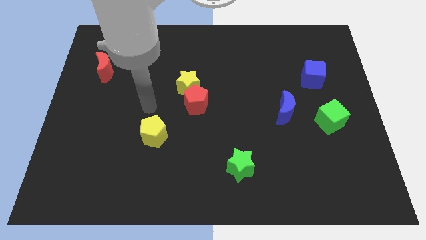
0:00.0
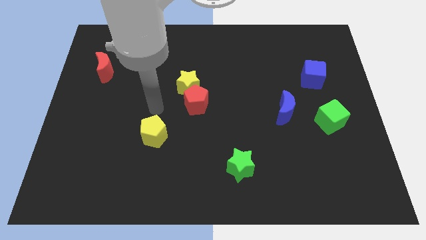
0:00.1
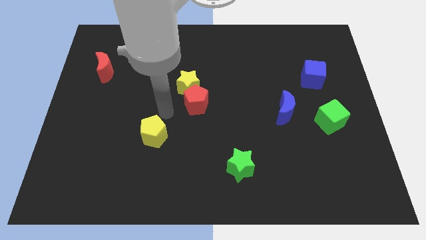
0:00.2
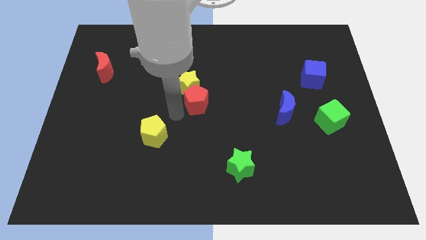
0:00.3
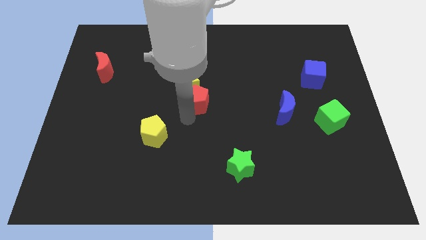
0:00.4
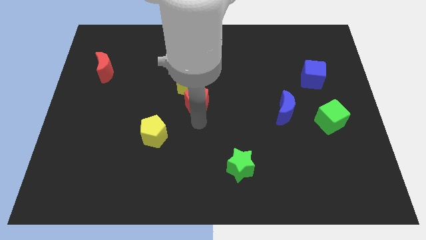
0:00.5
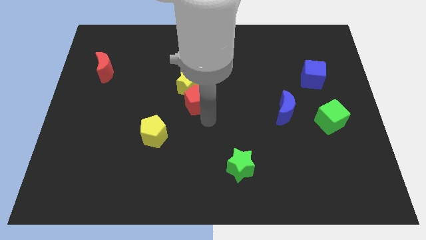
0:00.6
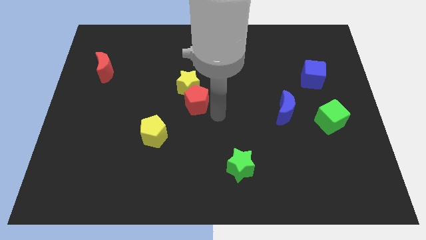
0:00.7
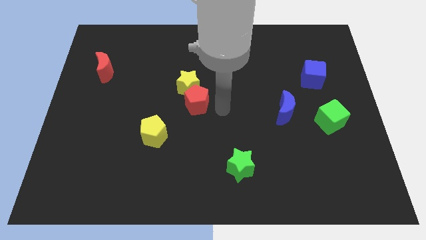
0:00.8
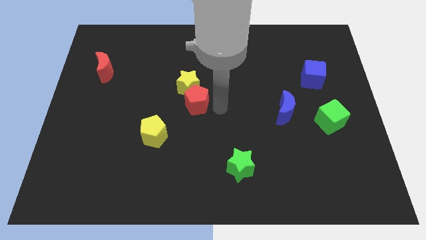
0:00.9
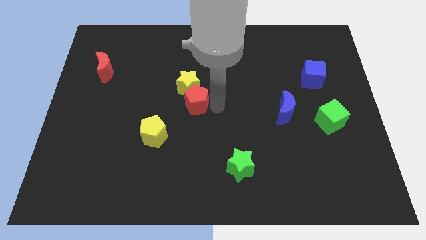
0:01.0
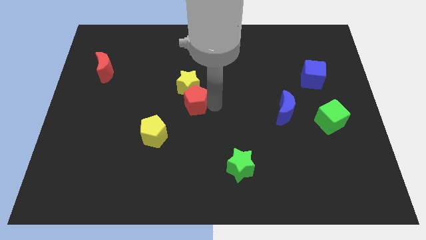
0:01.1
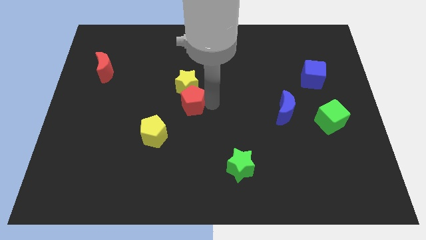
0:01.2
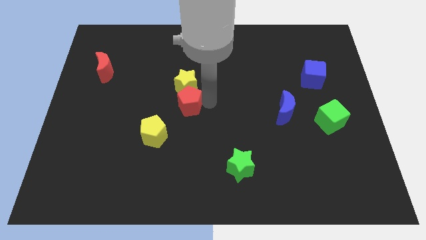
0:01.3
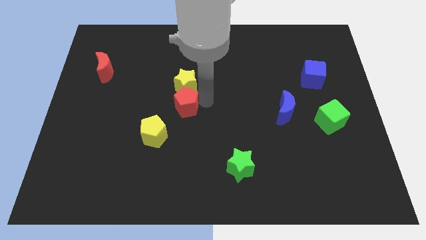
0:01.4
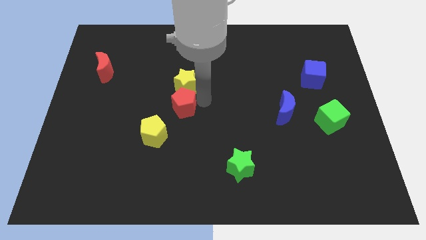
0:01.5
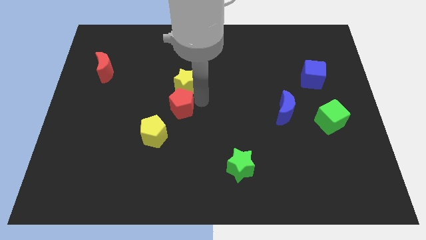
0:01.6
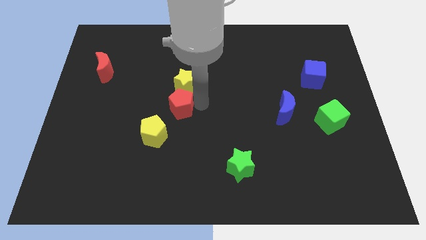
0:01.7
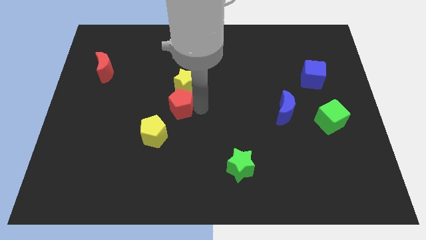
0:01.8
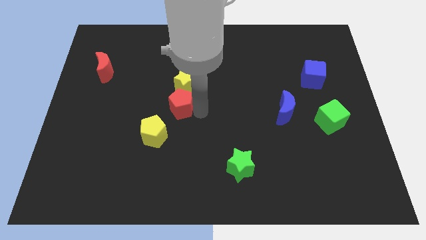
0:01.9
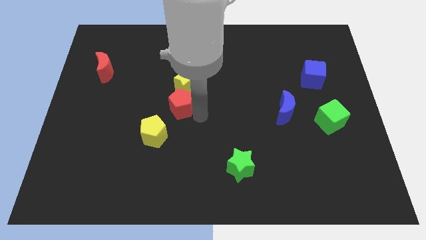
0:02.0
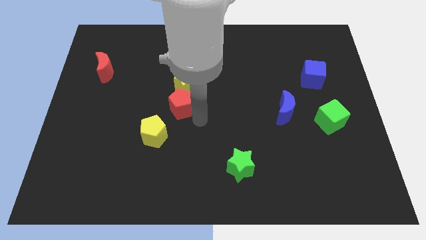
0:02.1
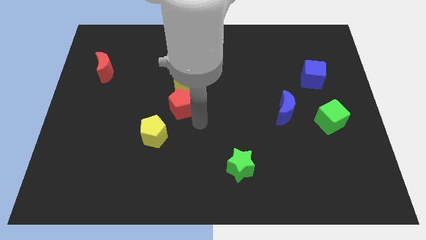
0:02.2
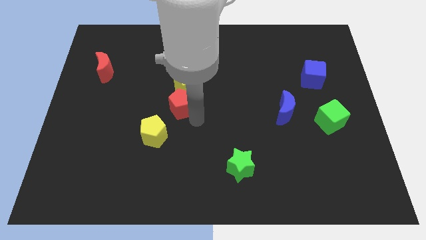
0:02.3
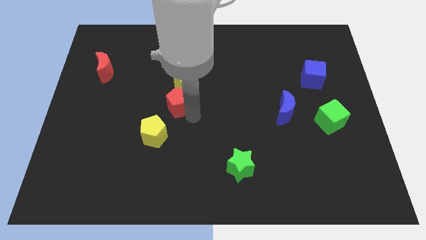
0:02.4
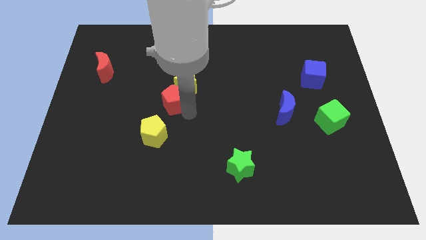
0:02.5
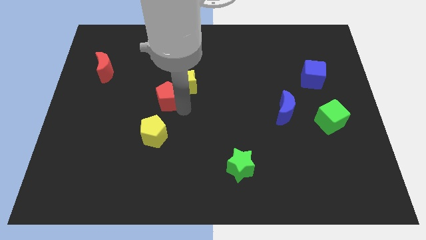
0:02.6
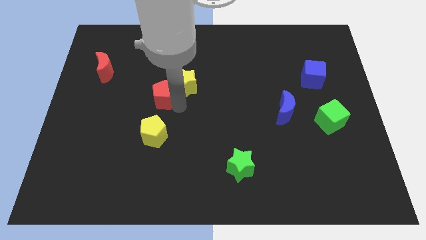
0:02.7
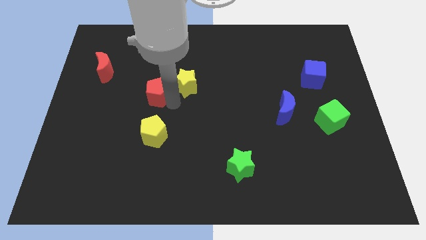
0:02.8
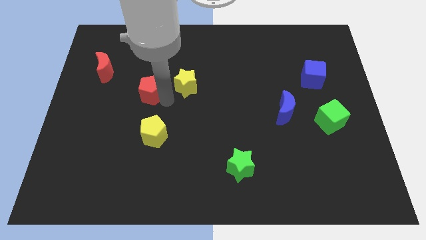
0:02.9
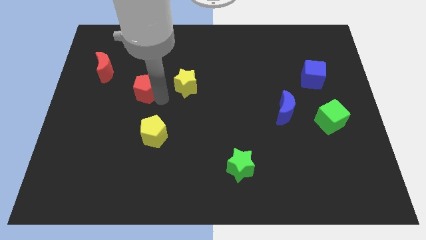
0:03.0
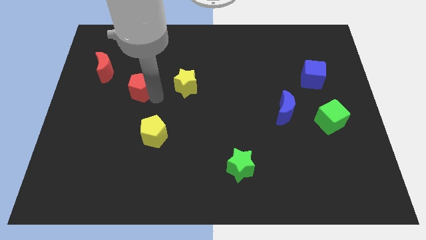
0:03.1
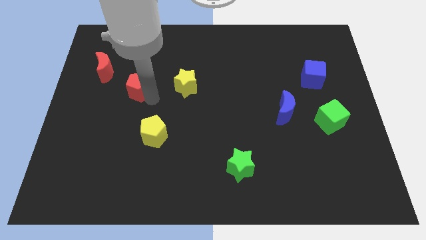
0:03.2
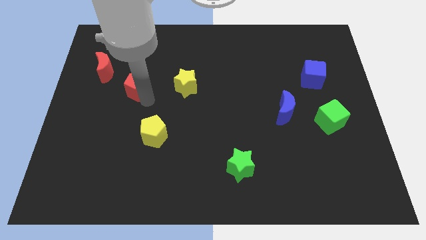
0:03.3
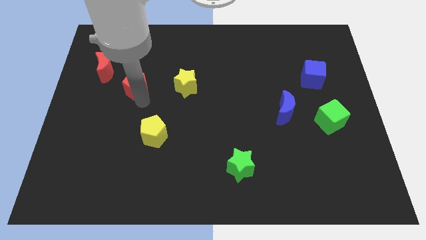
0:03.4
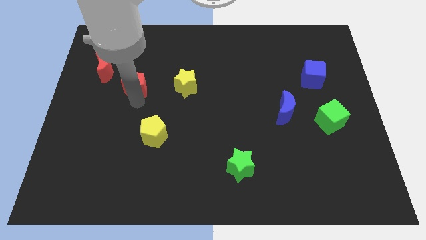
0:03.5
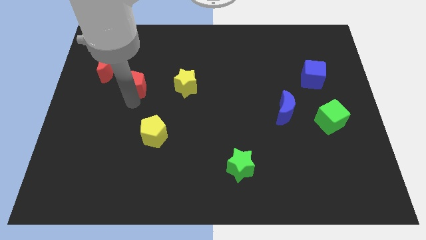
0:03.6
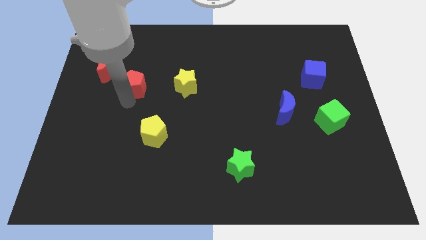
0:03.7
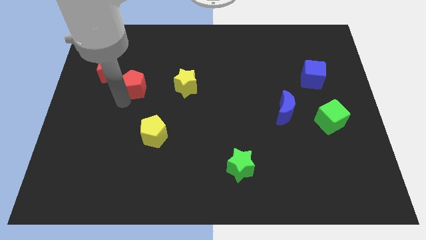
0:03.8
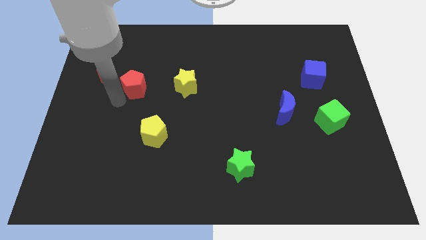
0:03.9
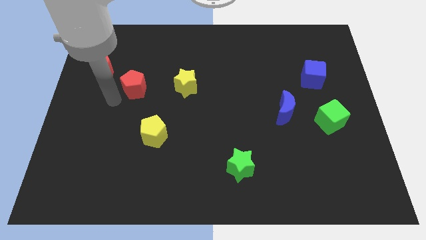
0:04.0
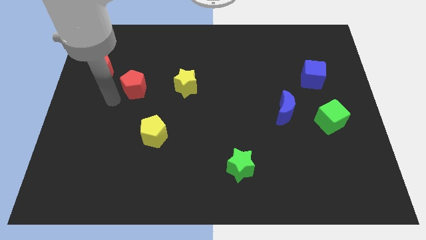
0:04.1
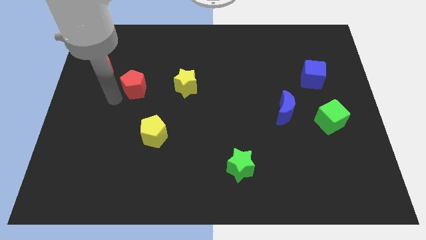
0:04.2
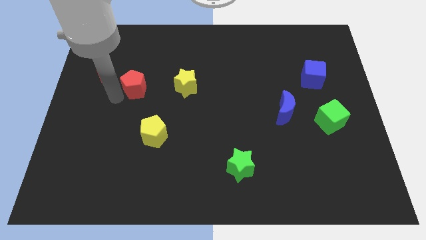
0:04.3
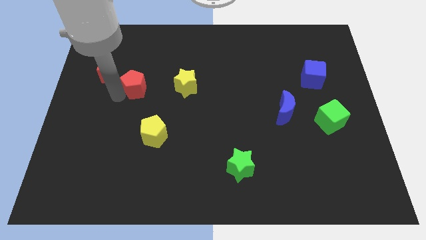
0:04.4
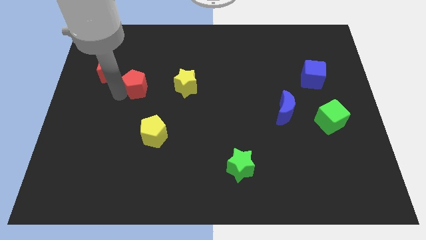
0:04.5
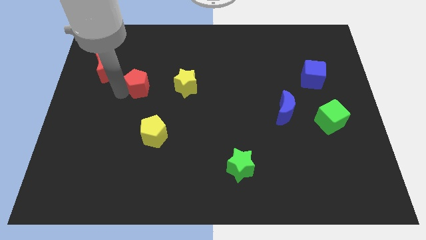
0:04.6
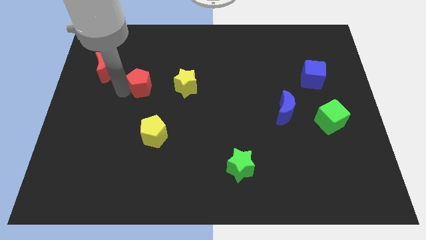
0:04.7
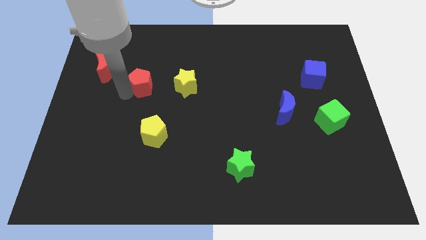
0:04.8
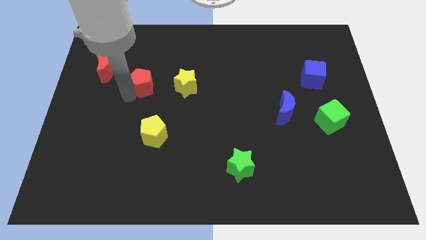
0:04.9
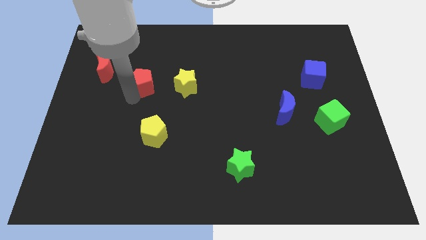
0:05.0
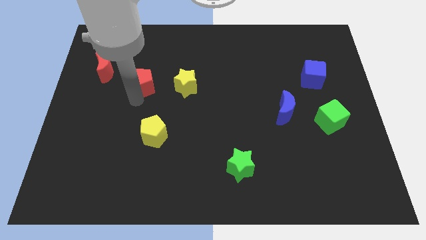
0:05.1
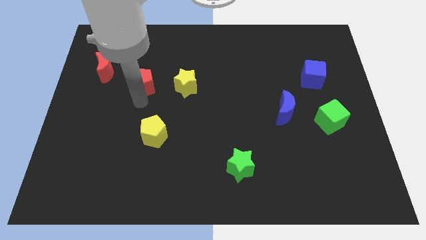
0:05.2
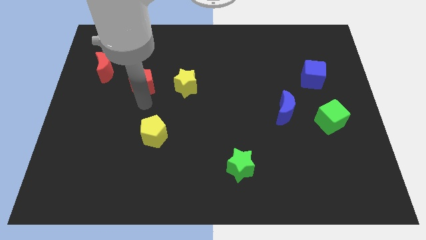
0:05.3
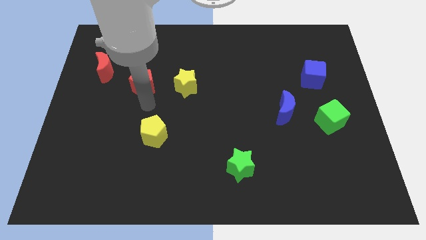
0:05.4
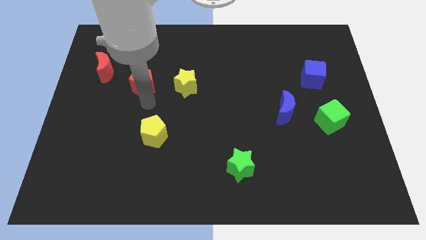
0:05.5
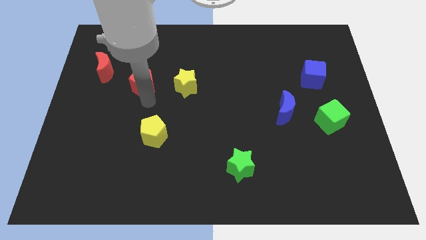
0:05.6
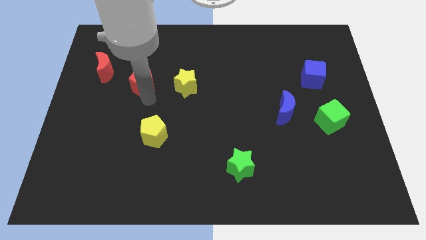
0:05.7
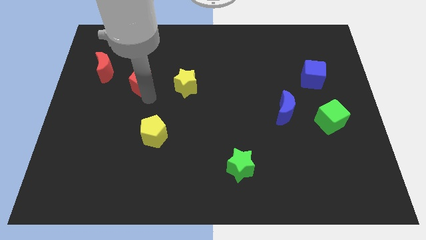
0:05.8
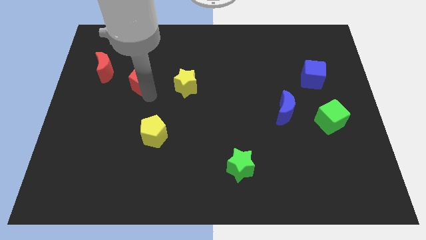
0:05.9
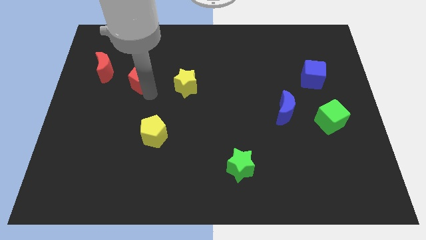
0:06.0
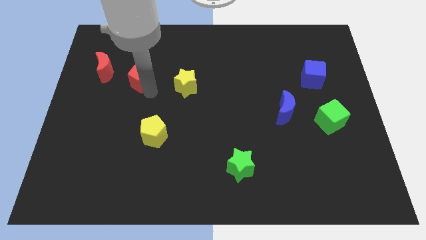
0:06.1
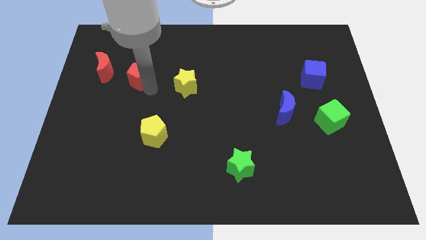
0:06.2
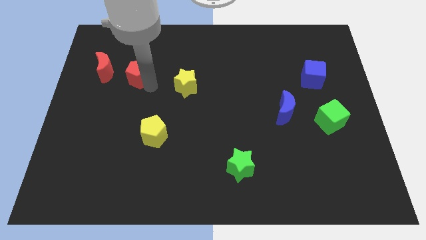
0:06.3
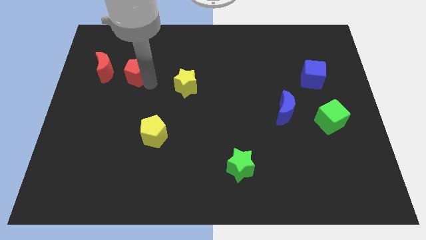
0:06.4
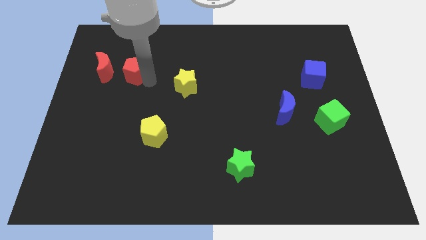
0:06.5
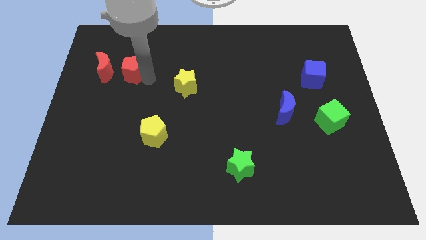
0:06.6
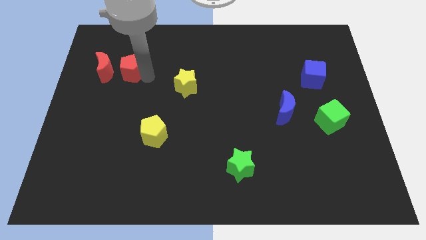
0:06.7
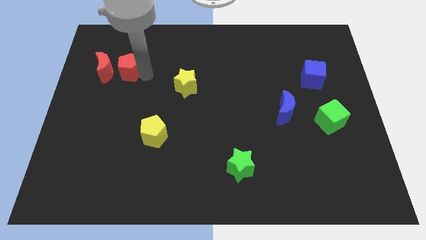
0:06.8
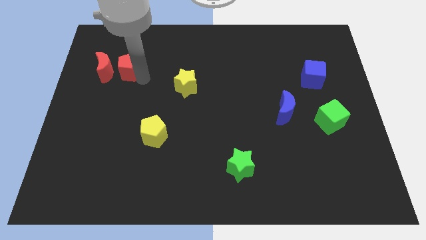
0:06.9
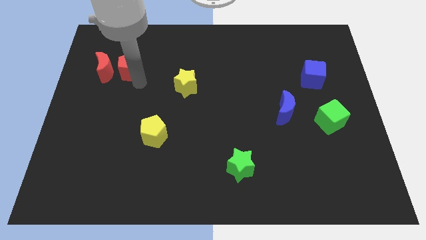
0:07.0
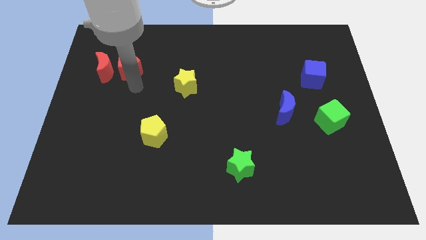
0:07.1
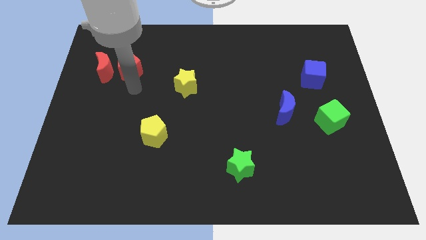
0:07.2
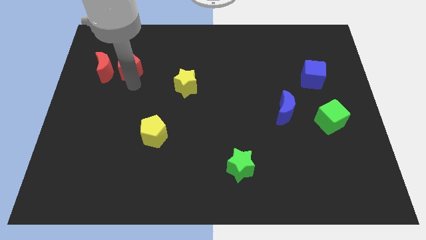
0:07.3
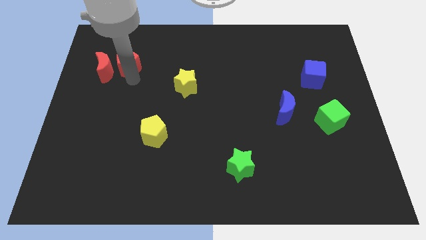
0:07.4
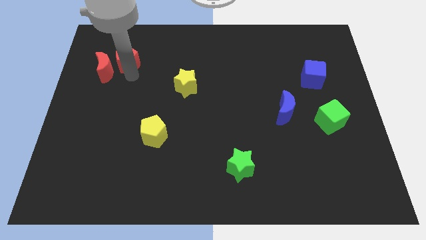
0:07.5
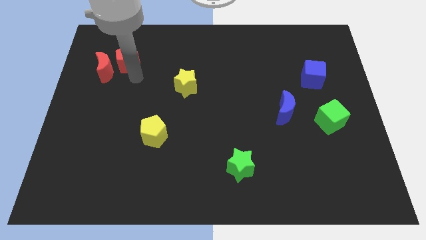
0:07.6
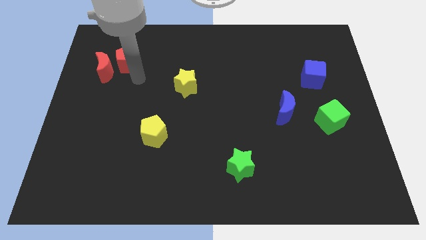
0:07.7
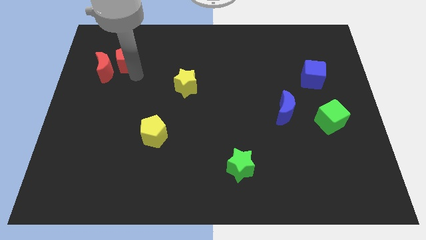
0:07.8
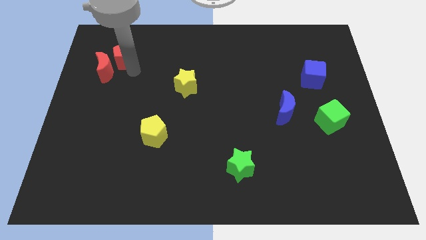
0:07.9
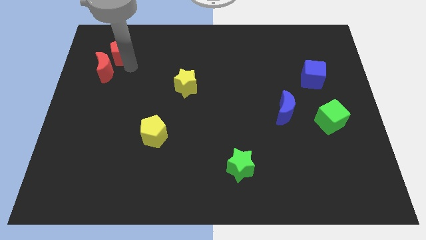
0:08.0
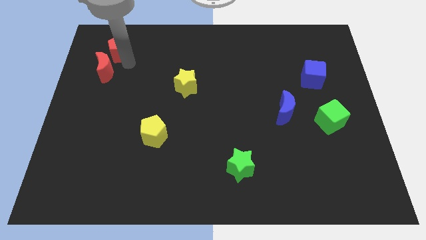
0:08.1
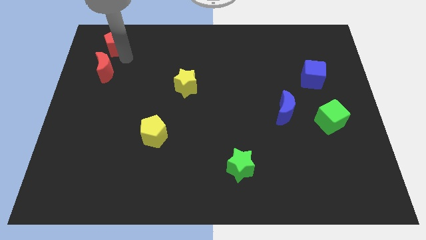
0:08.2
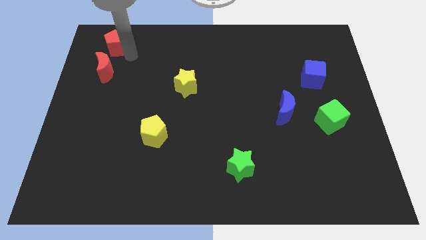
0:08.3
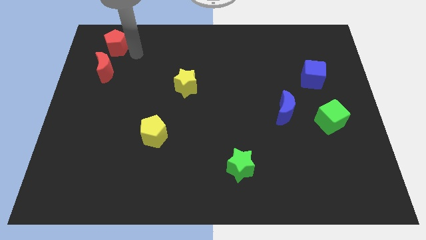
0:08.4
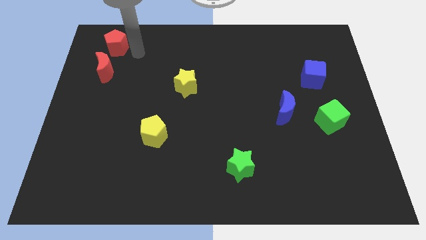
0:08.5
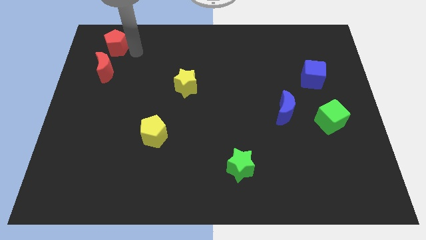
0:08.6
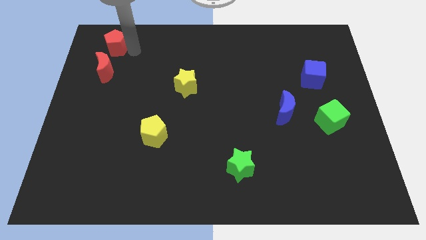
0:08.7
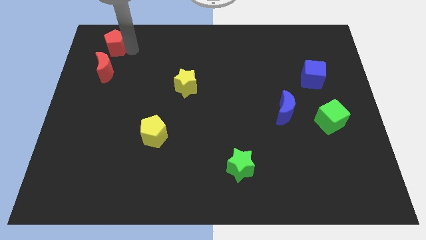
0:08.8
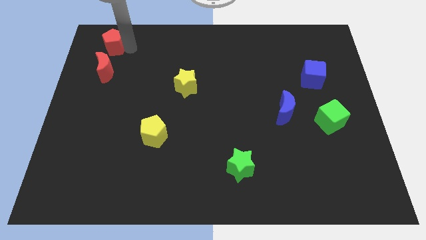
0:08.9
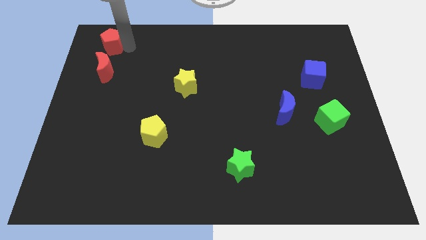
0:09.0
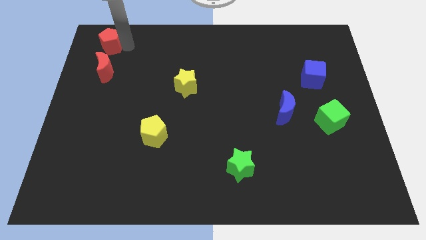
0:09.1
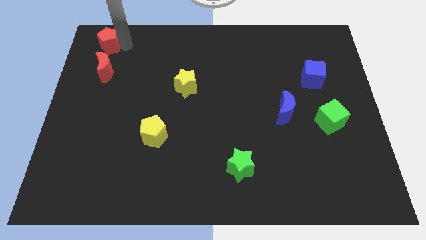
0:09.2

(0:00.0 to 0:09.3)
push the red pentagon to the top left
